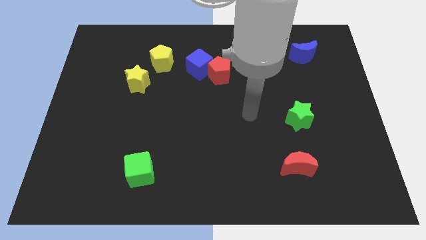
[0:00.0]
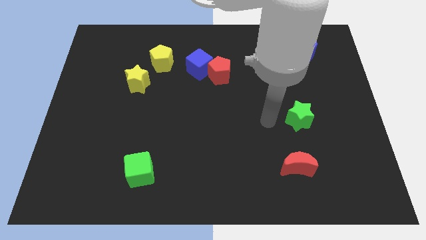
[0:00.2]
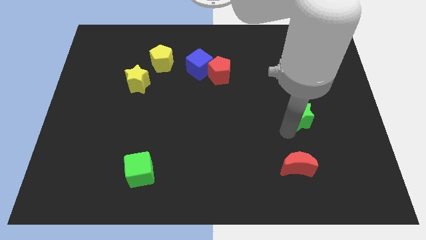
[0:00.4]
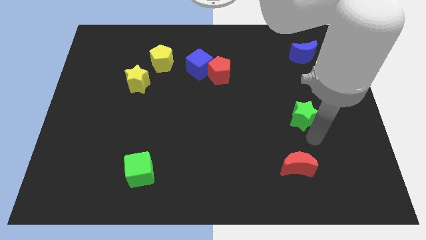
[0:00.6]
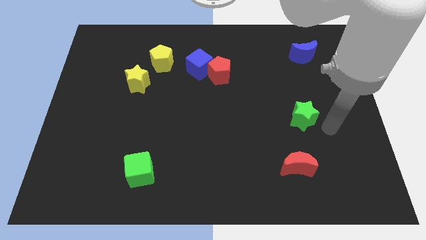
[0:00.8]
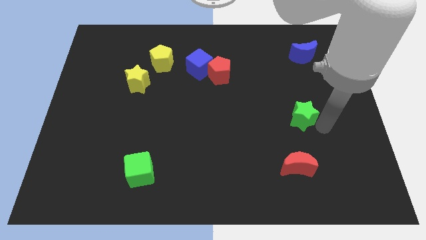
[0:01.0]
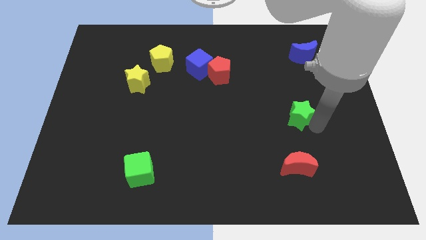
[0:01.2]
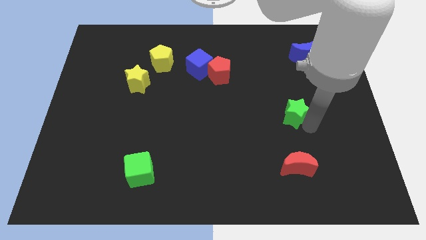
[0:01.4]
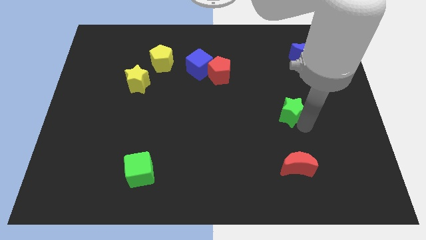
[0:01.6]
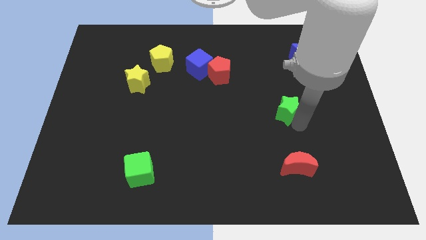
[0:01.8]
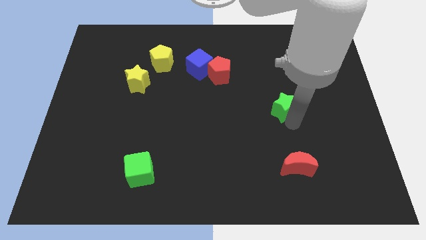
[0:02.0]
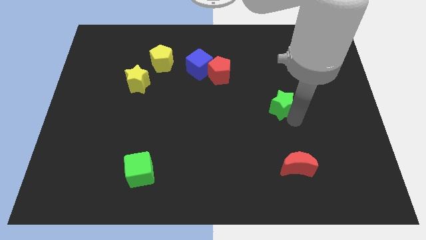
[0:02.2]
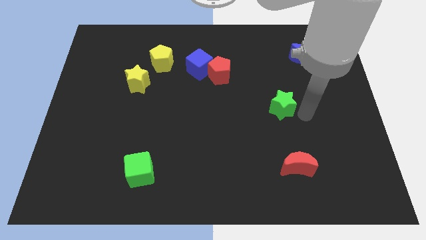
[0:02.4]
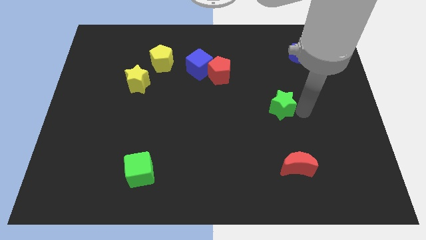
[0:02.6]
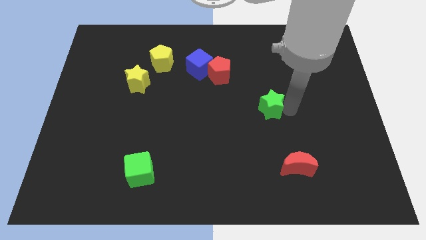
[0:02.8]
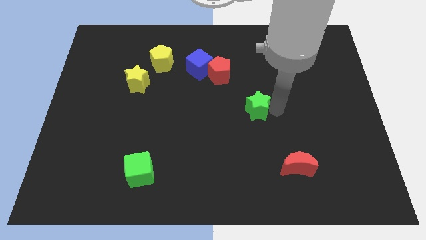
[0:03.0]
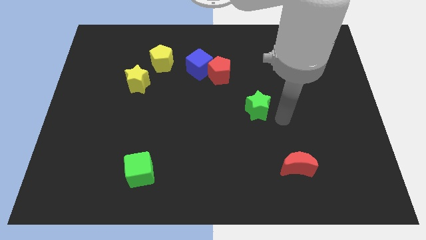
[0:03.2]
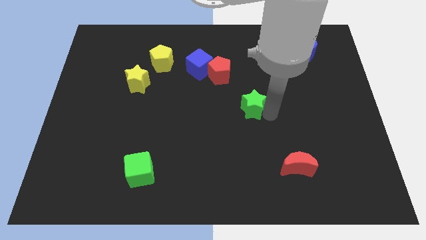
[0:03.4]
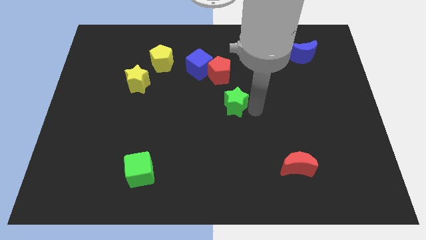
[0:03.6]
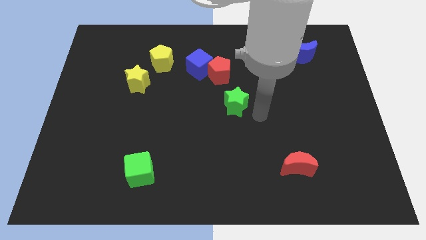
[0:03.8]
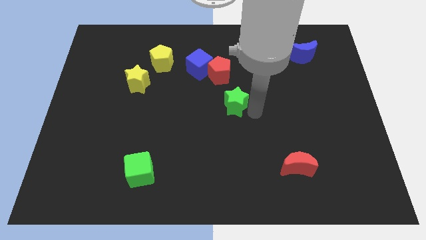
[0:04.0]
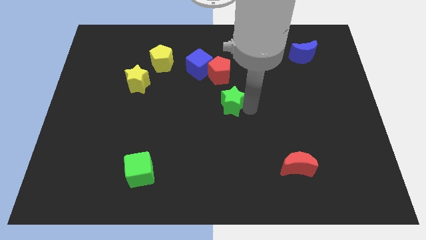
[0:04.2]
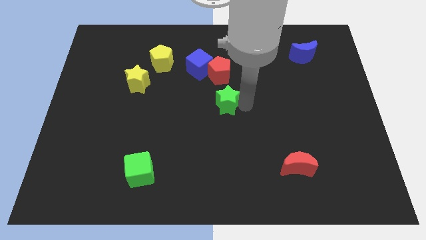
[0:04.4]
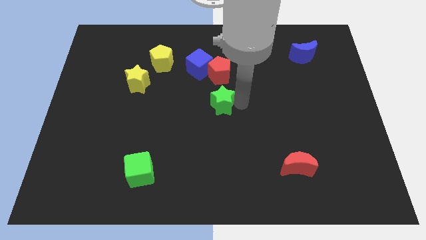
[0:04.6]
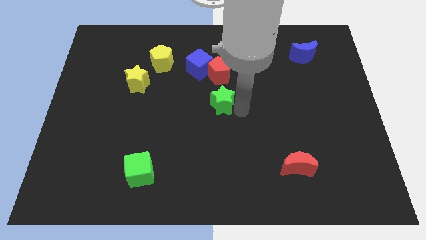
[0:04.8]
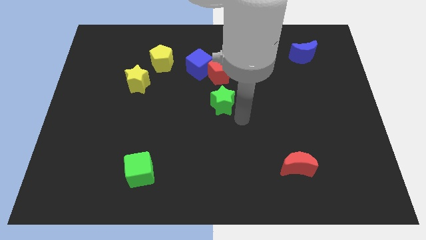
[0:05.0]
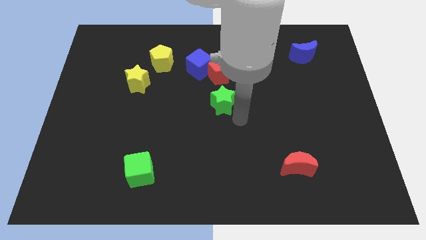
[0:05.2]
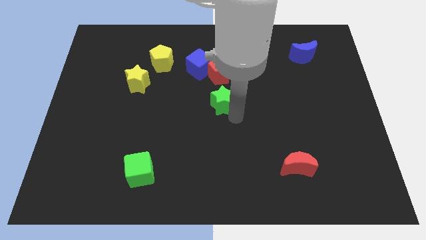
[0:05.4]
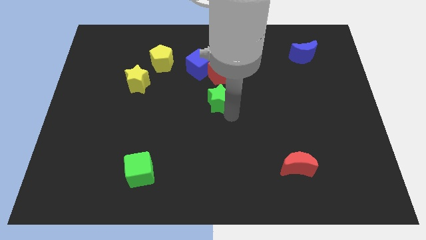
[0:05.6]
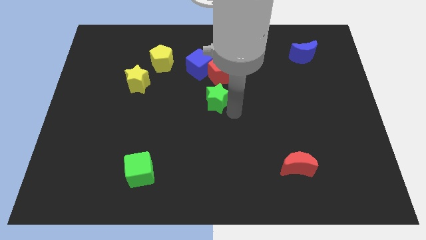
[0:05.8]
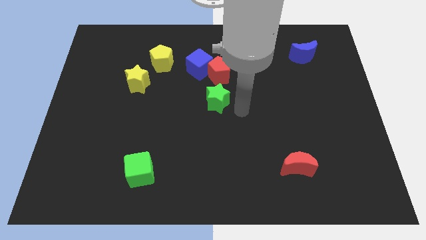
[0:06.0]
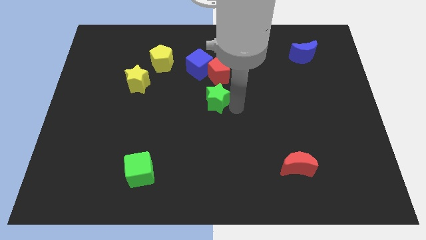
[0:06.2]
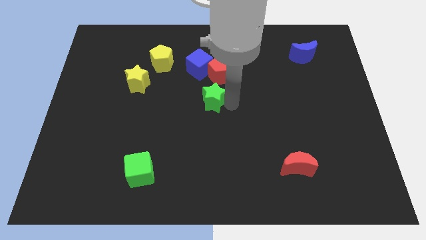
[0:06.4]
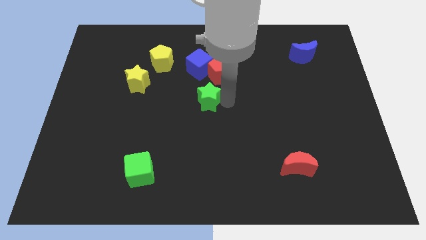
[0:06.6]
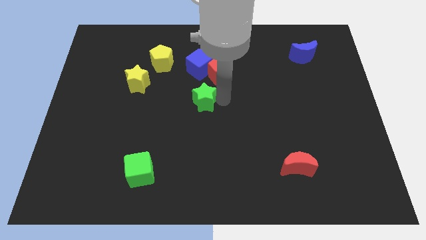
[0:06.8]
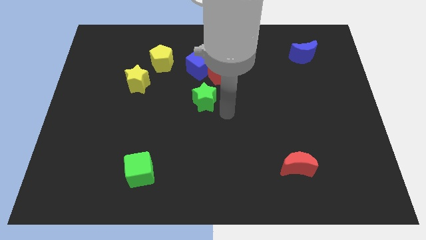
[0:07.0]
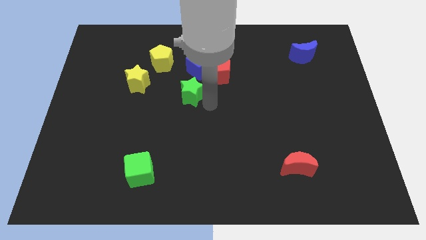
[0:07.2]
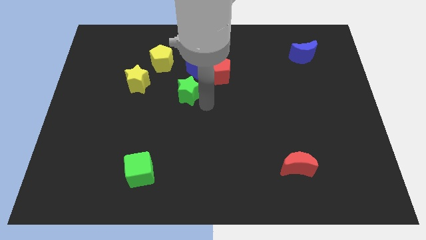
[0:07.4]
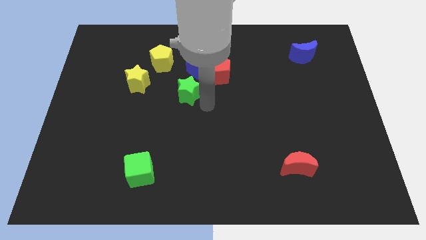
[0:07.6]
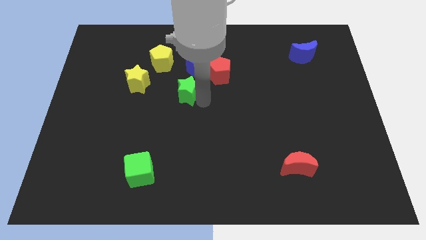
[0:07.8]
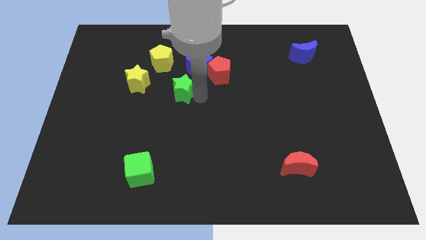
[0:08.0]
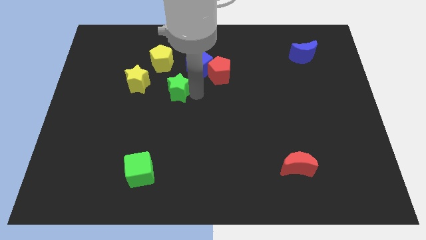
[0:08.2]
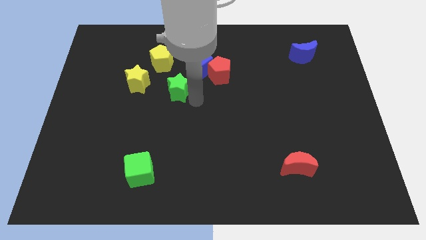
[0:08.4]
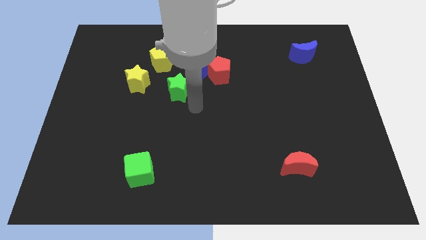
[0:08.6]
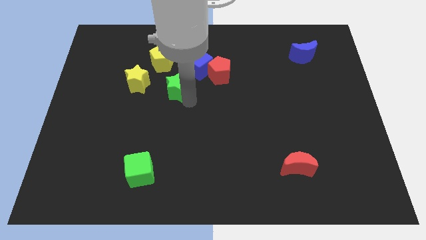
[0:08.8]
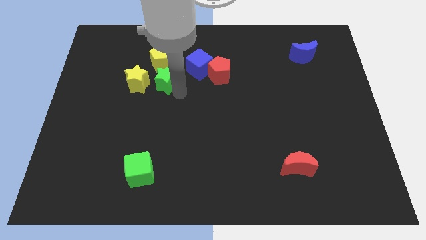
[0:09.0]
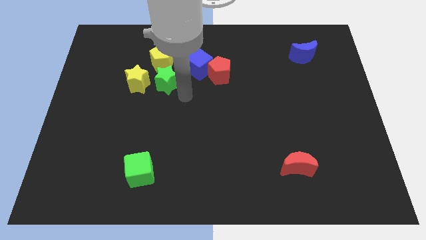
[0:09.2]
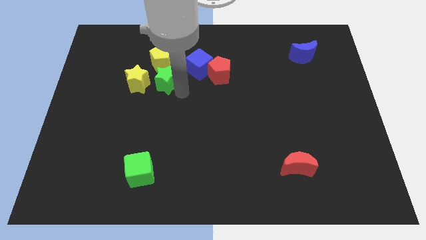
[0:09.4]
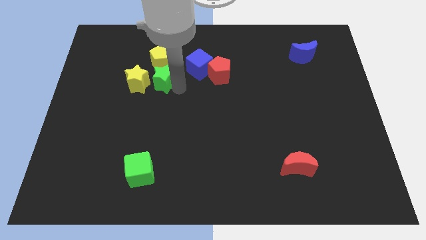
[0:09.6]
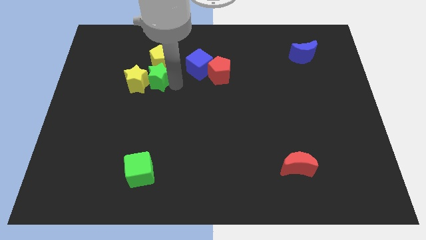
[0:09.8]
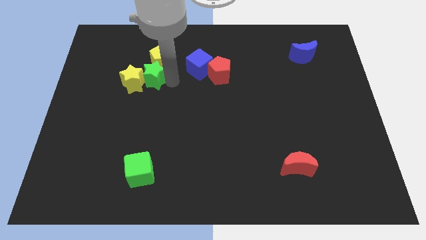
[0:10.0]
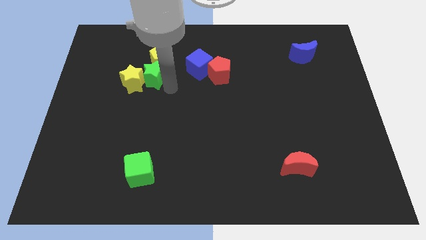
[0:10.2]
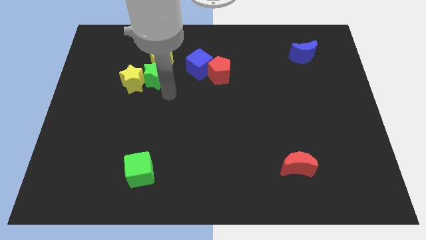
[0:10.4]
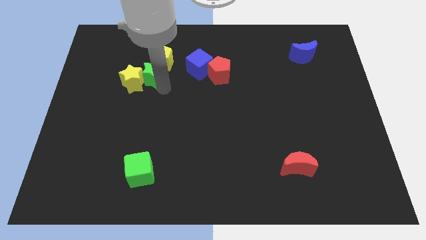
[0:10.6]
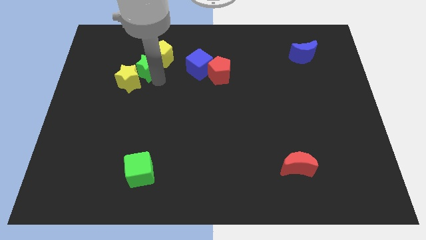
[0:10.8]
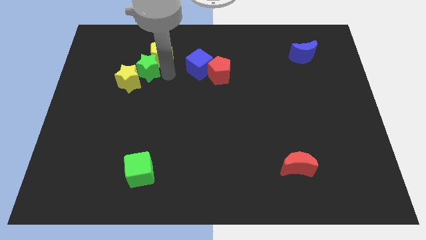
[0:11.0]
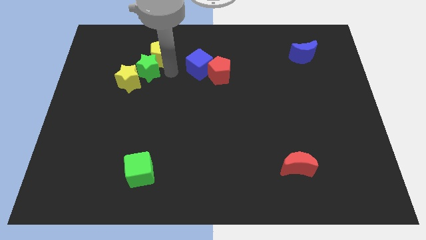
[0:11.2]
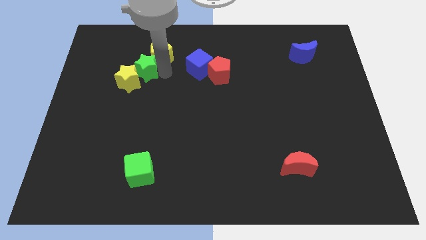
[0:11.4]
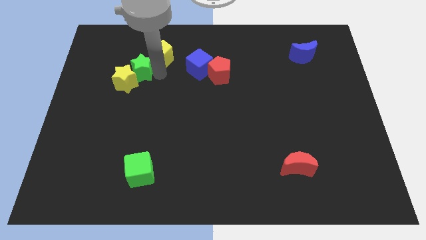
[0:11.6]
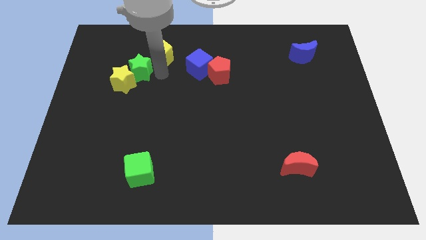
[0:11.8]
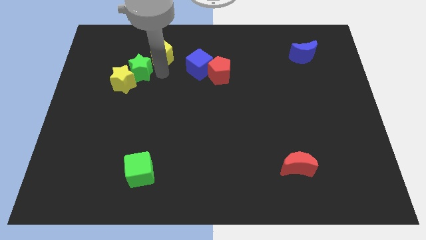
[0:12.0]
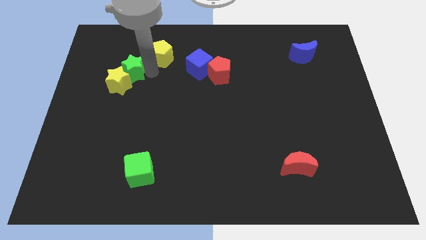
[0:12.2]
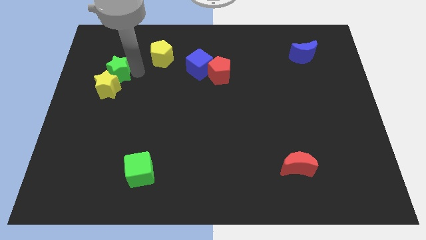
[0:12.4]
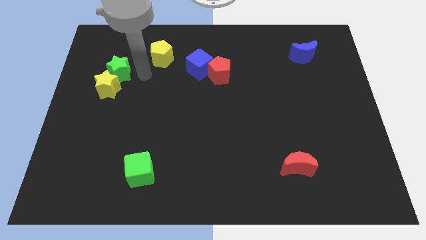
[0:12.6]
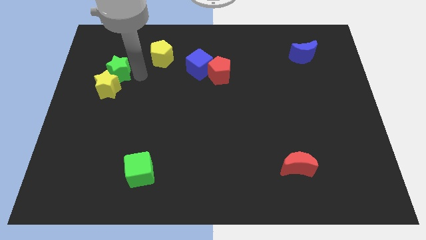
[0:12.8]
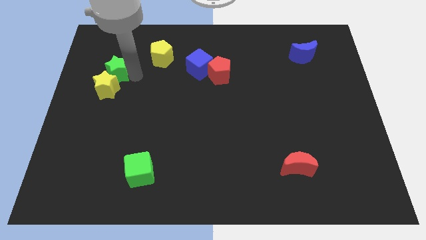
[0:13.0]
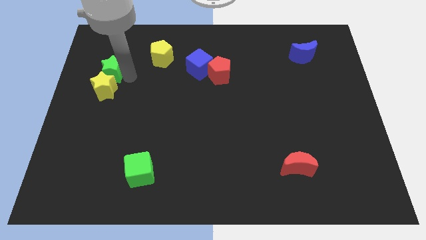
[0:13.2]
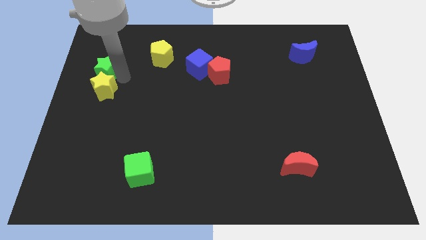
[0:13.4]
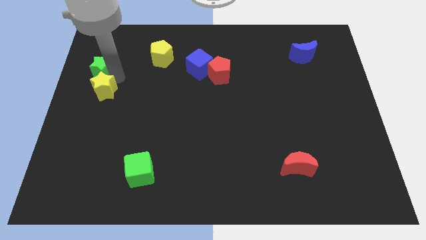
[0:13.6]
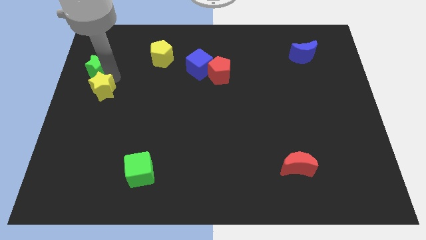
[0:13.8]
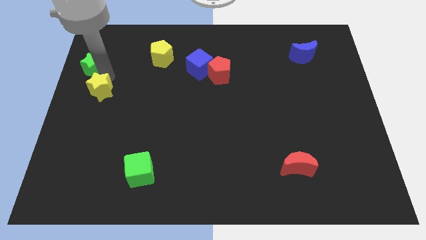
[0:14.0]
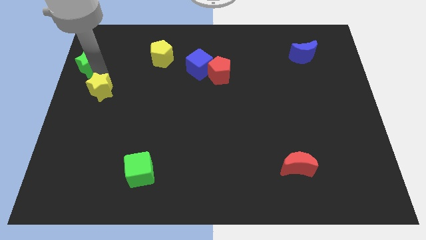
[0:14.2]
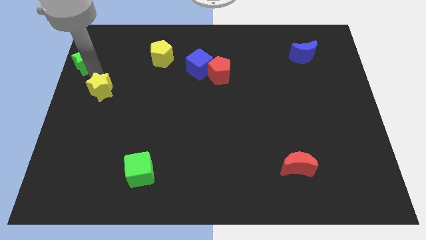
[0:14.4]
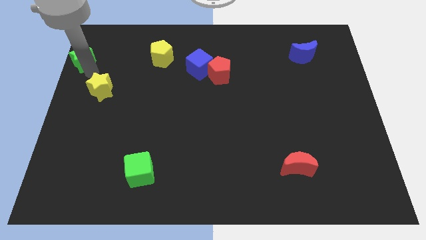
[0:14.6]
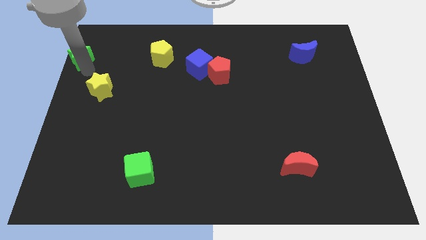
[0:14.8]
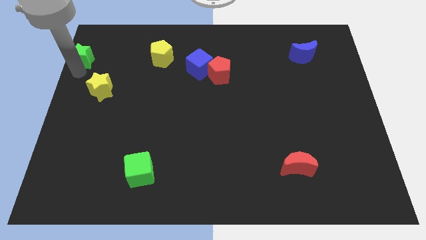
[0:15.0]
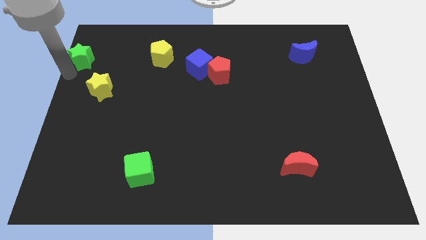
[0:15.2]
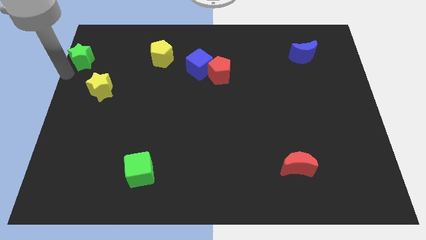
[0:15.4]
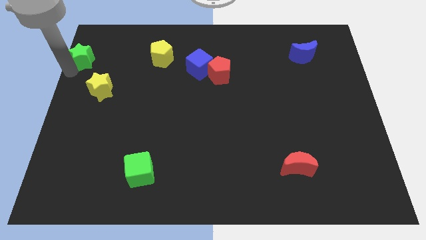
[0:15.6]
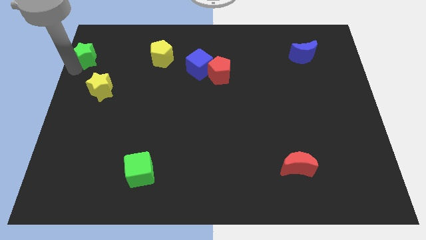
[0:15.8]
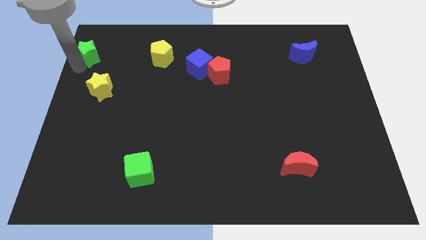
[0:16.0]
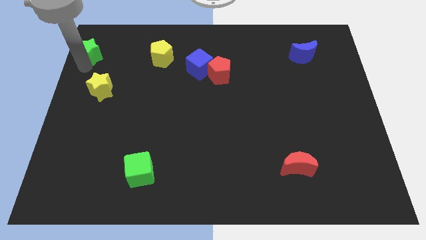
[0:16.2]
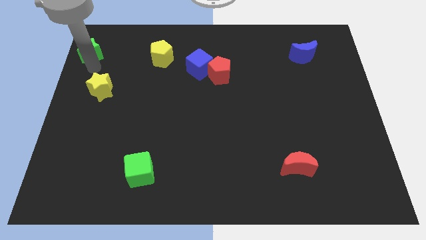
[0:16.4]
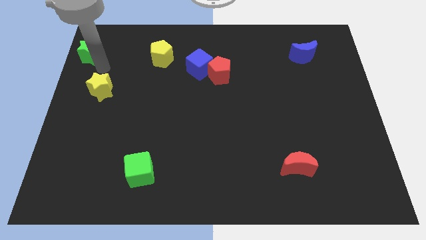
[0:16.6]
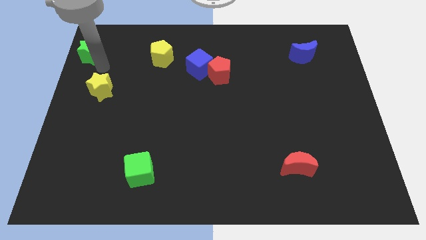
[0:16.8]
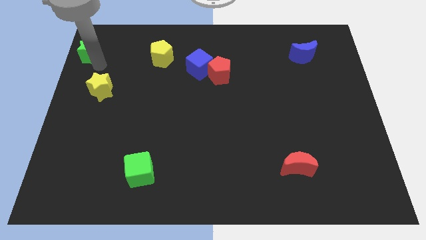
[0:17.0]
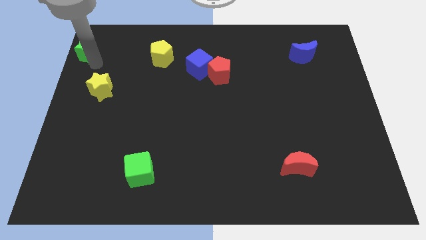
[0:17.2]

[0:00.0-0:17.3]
put the green star to the upper left corner
